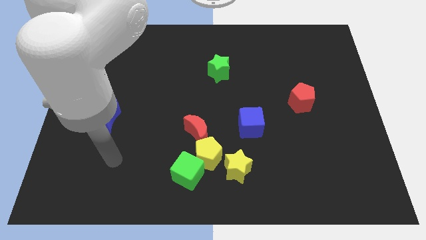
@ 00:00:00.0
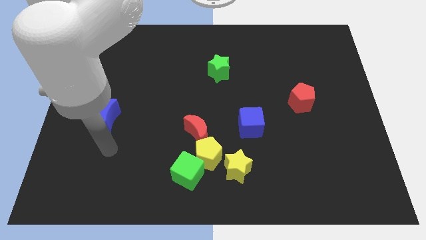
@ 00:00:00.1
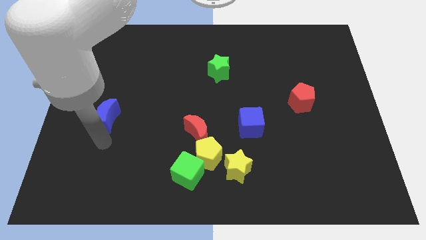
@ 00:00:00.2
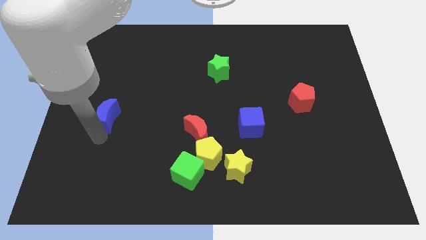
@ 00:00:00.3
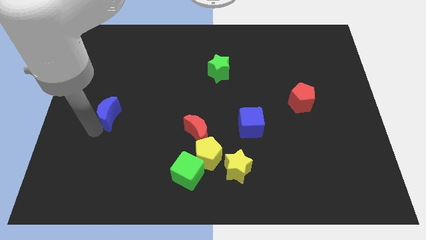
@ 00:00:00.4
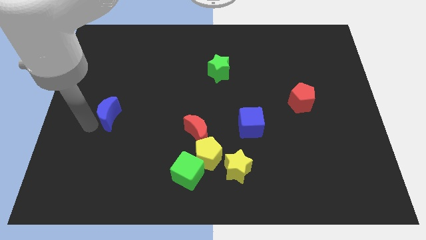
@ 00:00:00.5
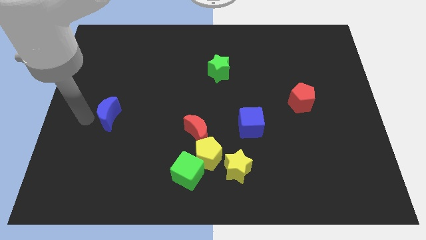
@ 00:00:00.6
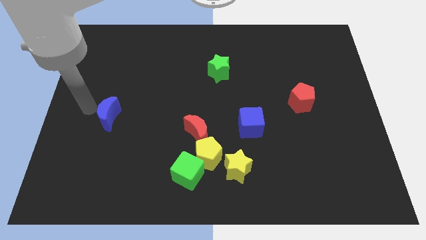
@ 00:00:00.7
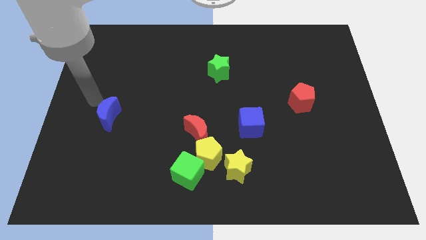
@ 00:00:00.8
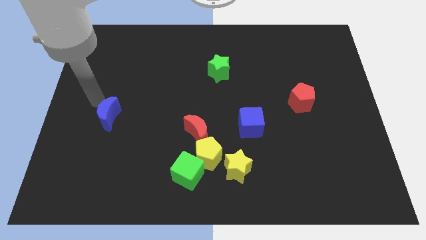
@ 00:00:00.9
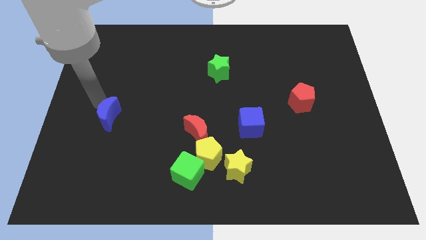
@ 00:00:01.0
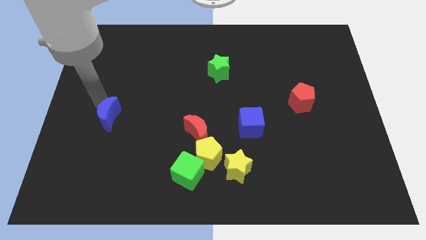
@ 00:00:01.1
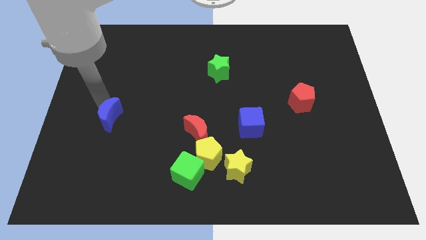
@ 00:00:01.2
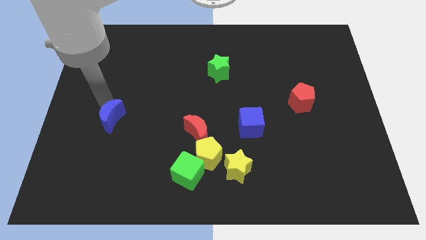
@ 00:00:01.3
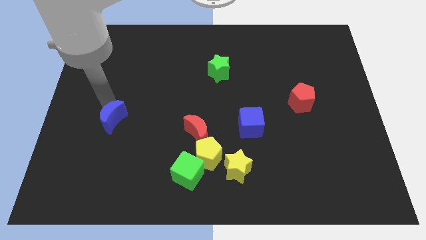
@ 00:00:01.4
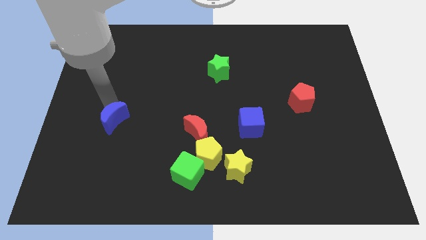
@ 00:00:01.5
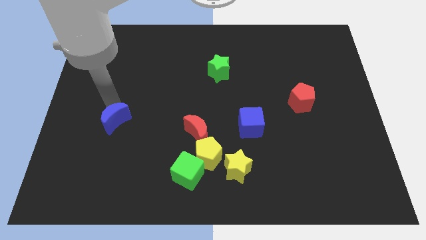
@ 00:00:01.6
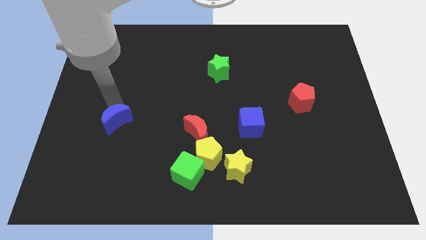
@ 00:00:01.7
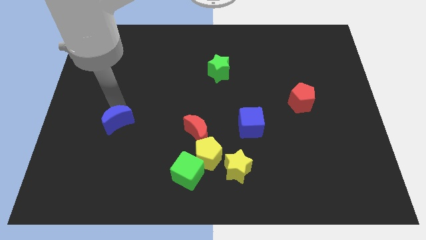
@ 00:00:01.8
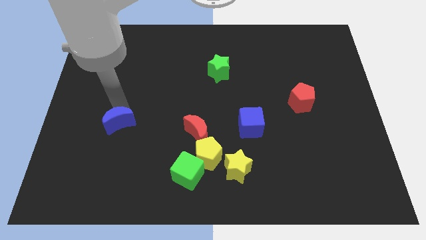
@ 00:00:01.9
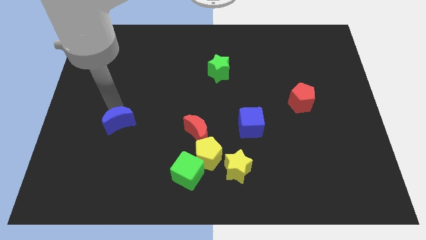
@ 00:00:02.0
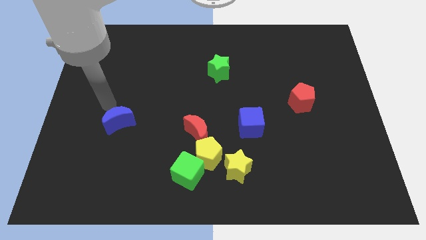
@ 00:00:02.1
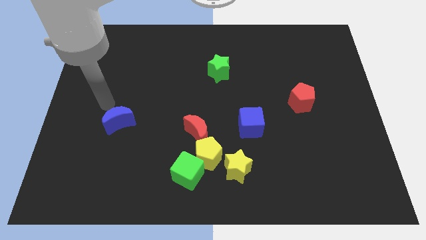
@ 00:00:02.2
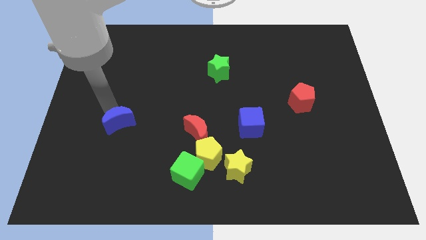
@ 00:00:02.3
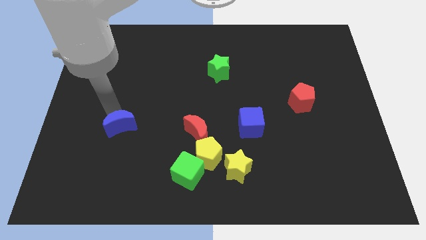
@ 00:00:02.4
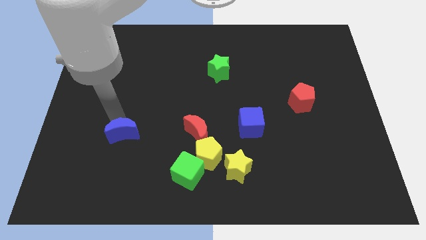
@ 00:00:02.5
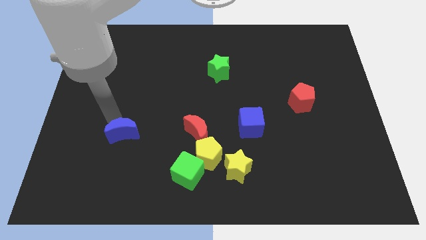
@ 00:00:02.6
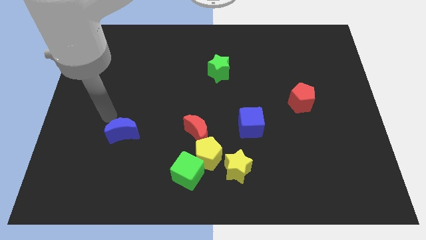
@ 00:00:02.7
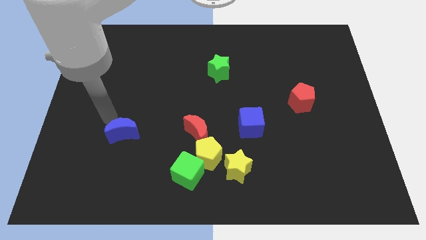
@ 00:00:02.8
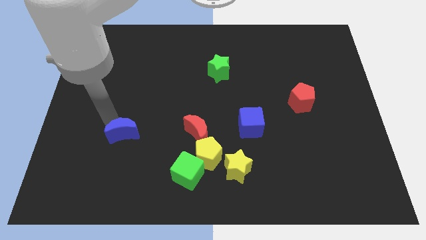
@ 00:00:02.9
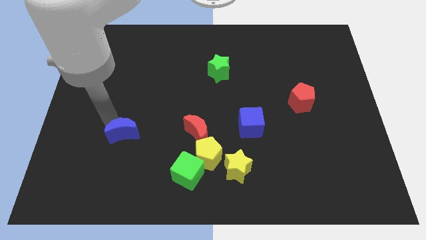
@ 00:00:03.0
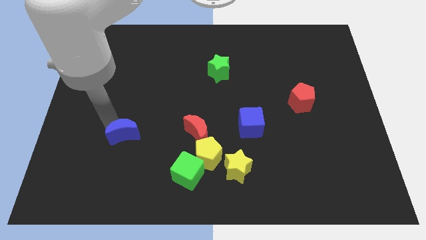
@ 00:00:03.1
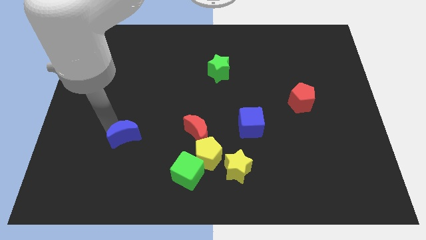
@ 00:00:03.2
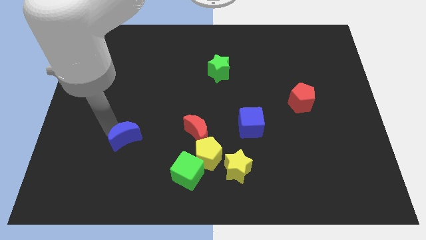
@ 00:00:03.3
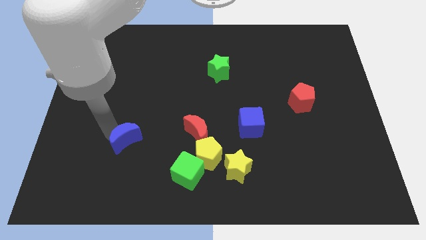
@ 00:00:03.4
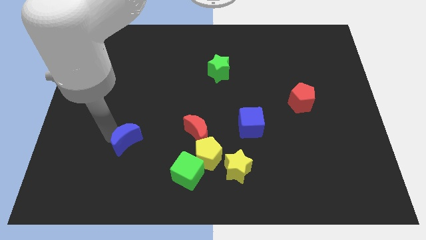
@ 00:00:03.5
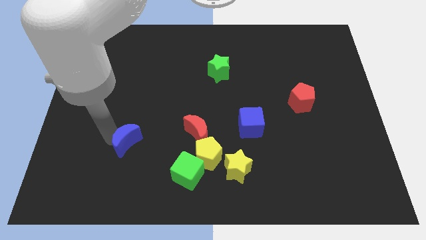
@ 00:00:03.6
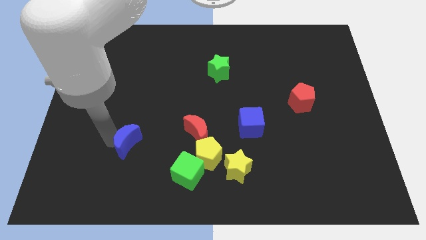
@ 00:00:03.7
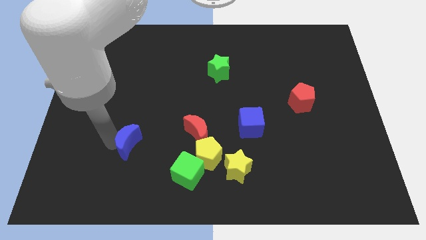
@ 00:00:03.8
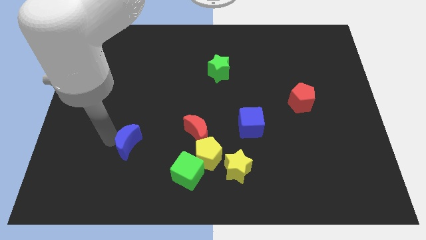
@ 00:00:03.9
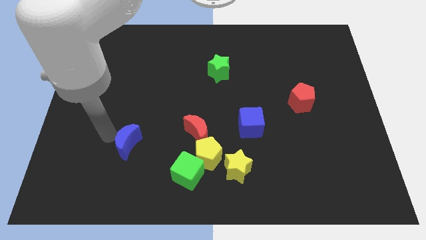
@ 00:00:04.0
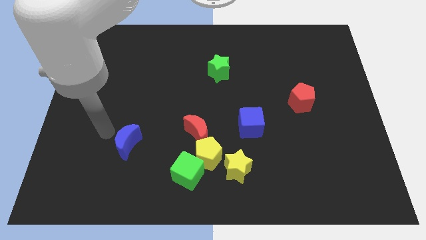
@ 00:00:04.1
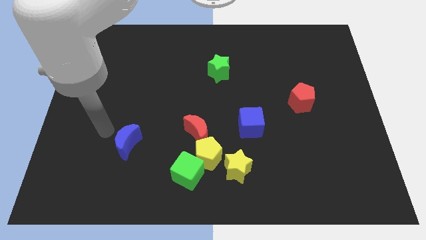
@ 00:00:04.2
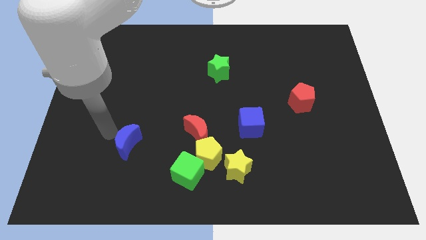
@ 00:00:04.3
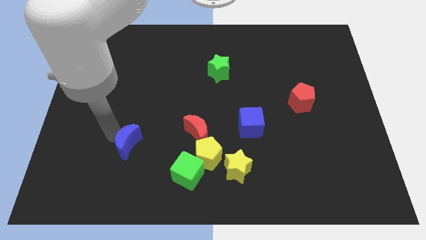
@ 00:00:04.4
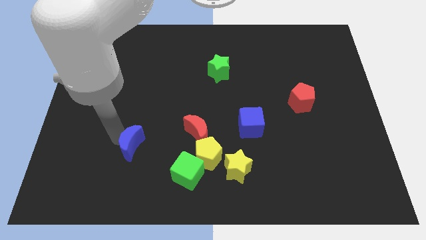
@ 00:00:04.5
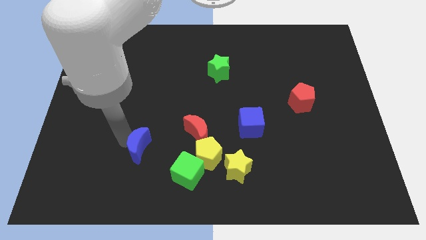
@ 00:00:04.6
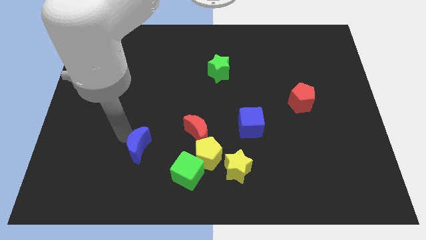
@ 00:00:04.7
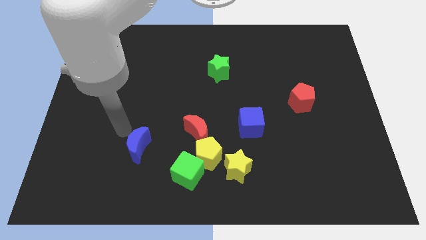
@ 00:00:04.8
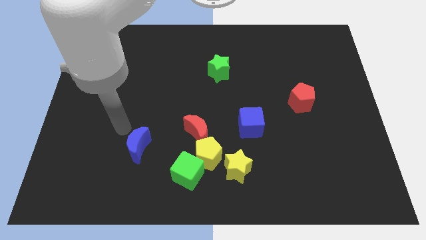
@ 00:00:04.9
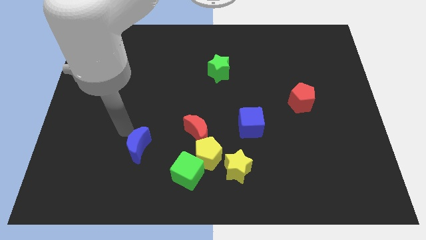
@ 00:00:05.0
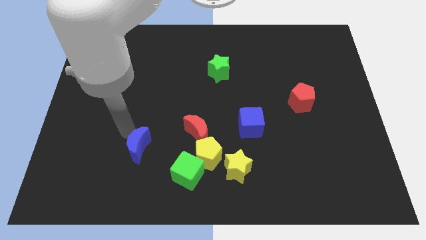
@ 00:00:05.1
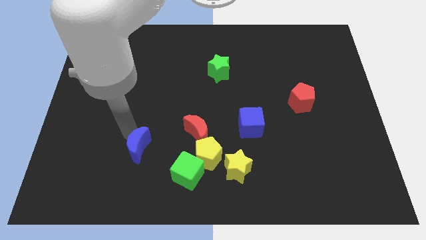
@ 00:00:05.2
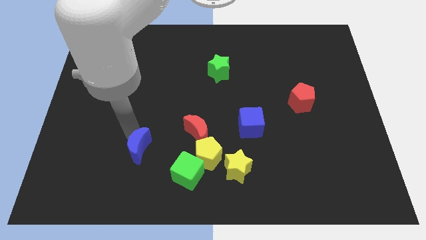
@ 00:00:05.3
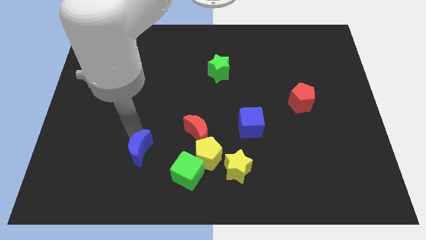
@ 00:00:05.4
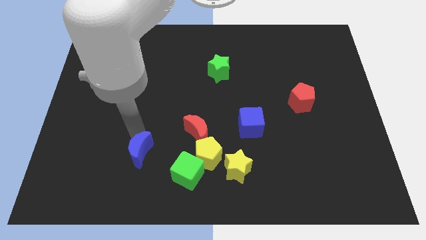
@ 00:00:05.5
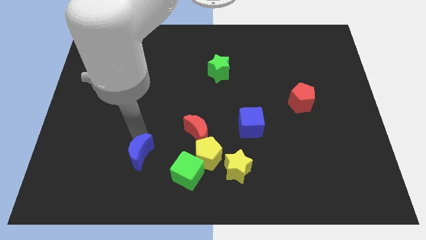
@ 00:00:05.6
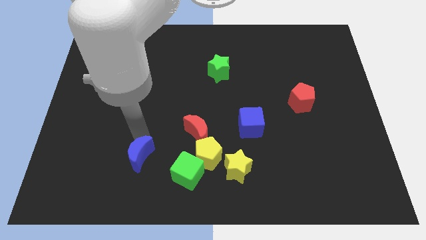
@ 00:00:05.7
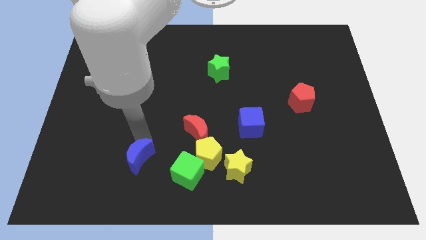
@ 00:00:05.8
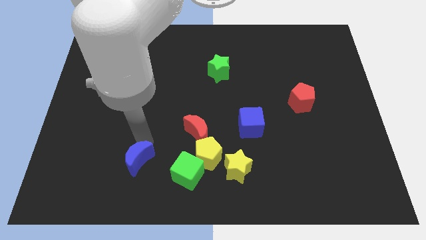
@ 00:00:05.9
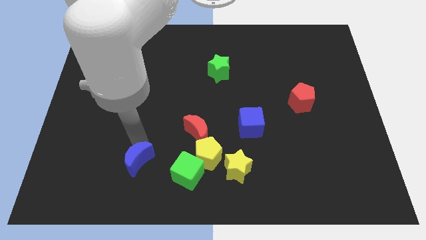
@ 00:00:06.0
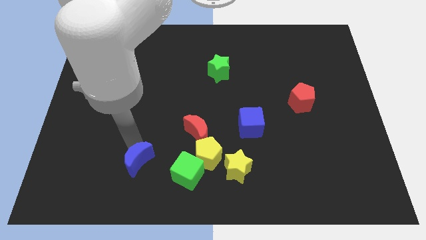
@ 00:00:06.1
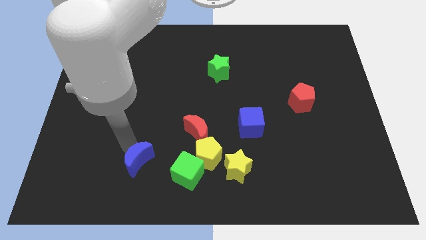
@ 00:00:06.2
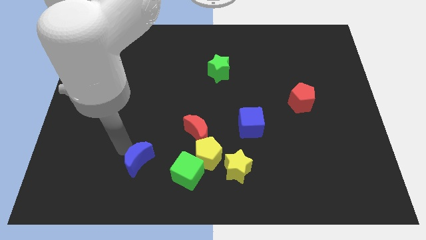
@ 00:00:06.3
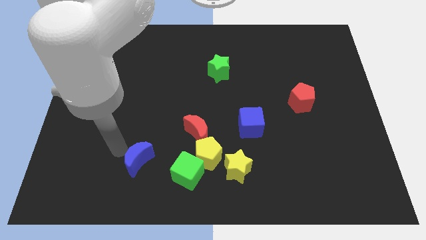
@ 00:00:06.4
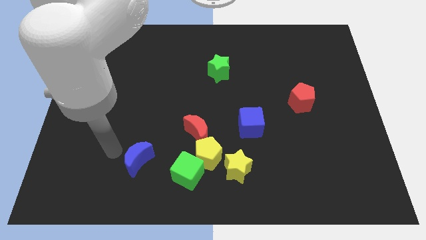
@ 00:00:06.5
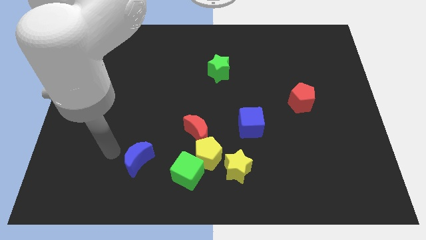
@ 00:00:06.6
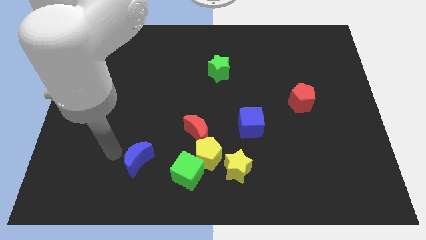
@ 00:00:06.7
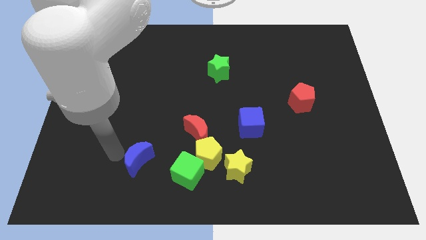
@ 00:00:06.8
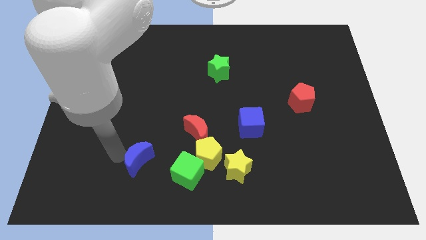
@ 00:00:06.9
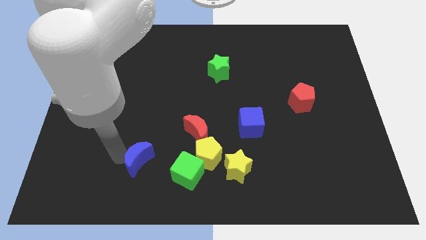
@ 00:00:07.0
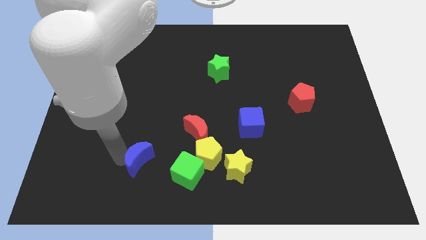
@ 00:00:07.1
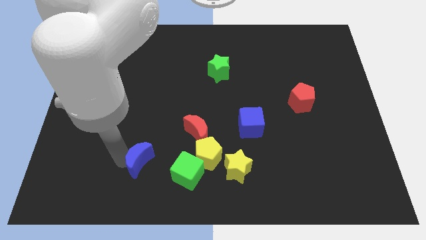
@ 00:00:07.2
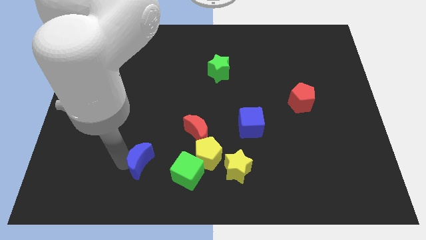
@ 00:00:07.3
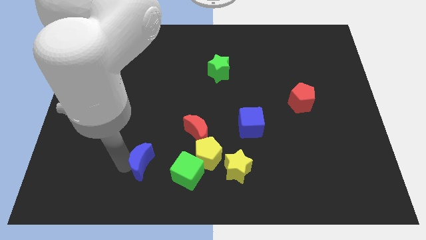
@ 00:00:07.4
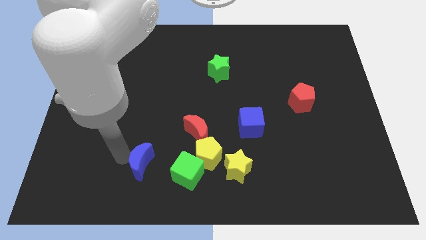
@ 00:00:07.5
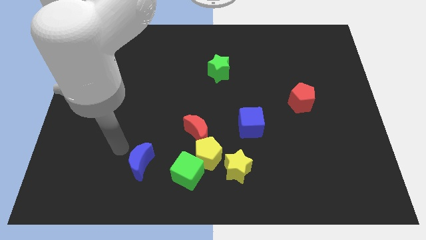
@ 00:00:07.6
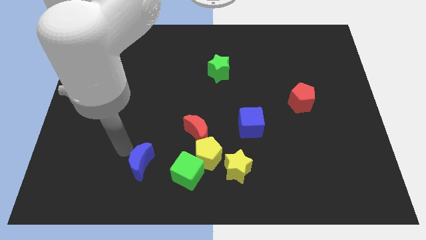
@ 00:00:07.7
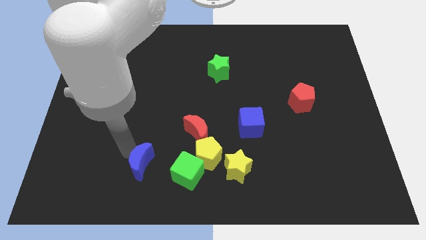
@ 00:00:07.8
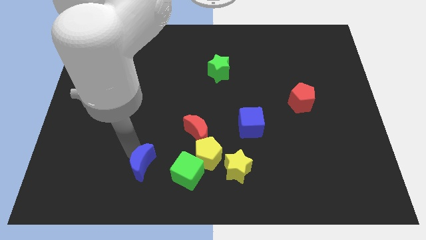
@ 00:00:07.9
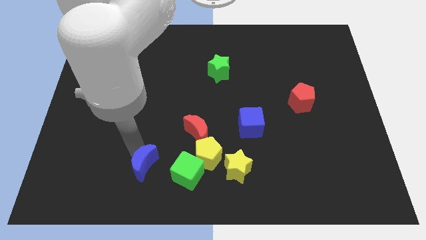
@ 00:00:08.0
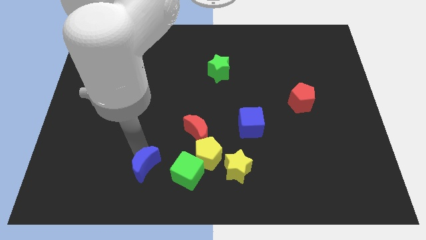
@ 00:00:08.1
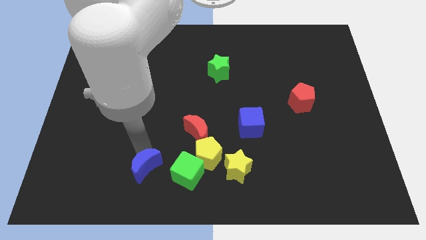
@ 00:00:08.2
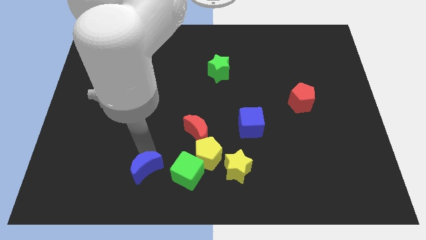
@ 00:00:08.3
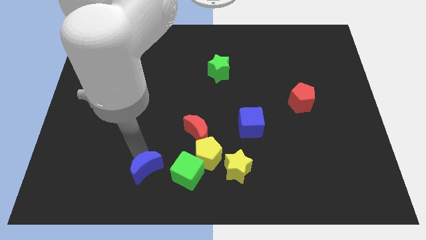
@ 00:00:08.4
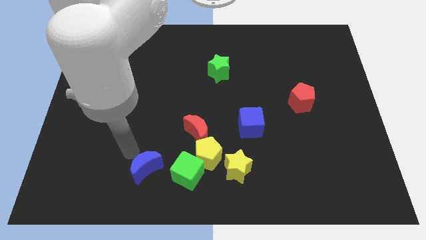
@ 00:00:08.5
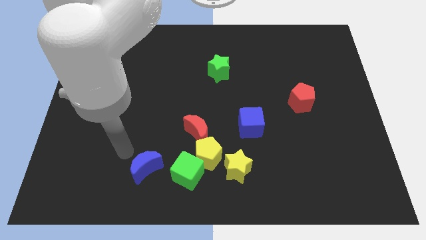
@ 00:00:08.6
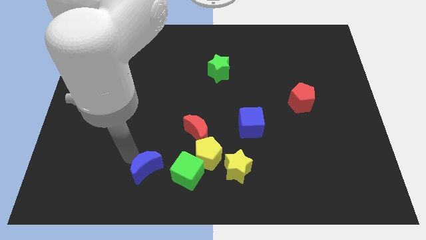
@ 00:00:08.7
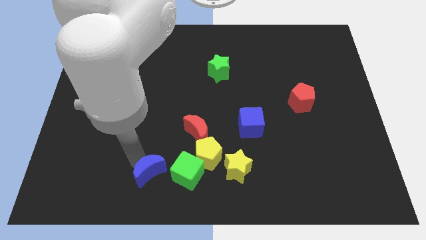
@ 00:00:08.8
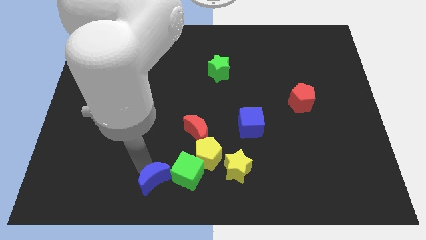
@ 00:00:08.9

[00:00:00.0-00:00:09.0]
push the blue moon to the bottom side
